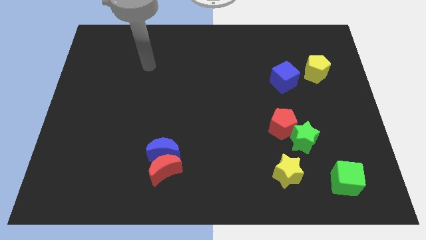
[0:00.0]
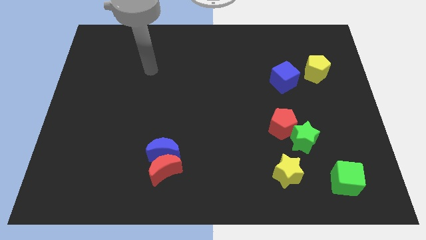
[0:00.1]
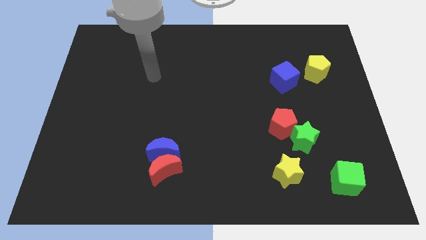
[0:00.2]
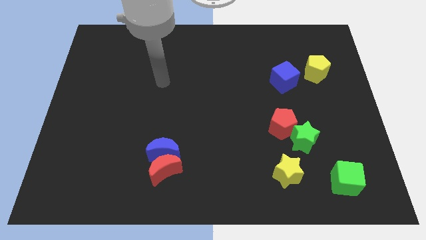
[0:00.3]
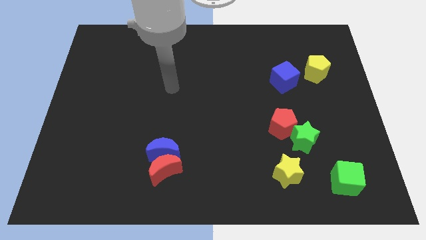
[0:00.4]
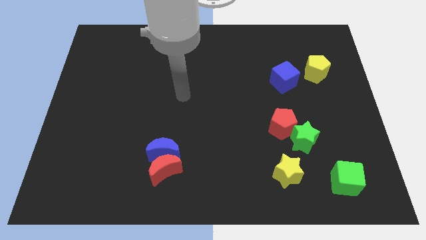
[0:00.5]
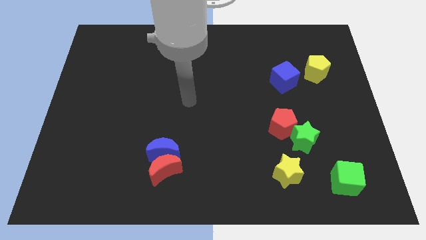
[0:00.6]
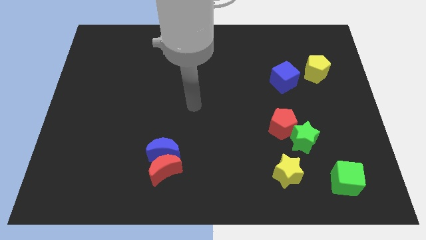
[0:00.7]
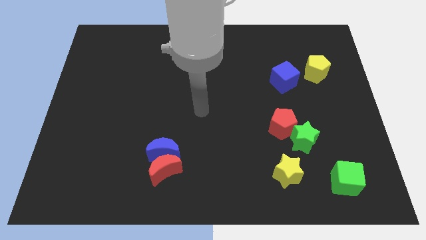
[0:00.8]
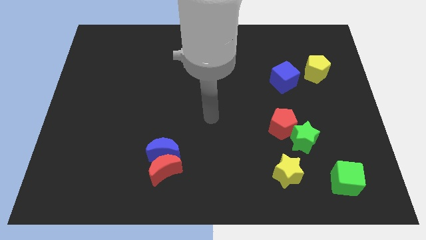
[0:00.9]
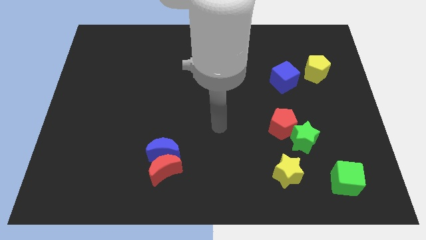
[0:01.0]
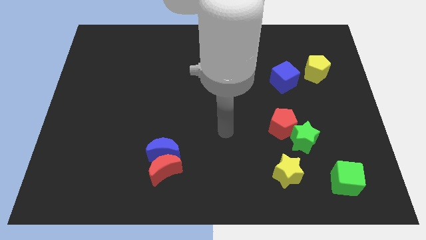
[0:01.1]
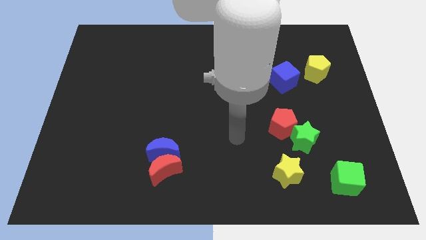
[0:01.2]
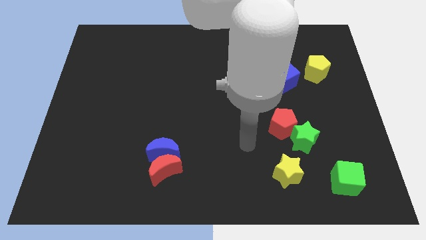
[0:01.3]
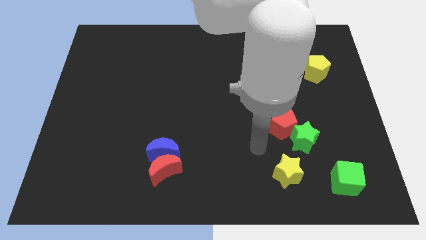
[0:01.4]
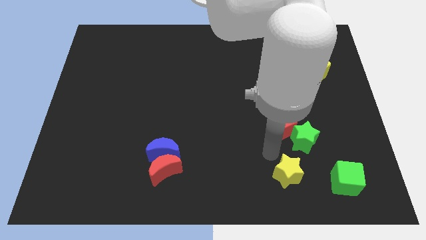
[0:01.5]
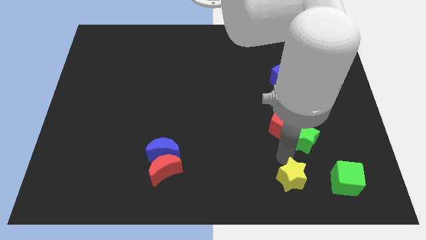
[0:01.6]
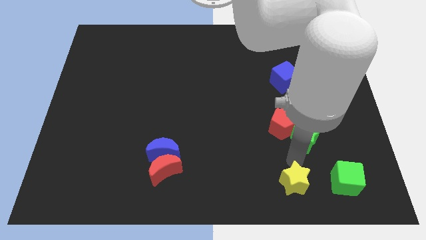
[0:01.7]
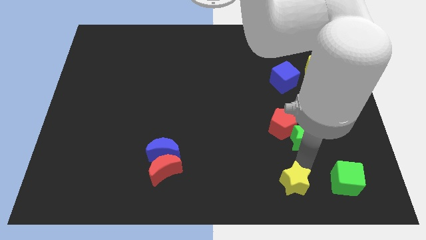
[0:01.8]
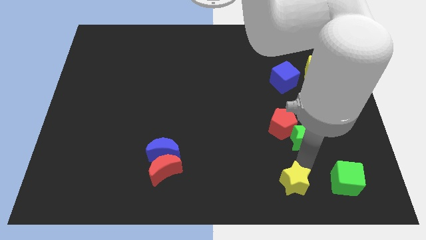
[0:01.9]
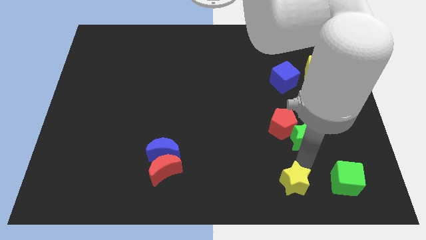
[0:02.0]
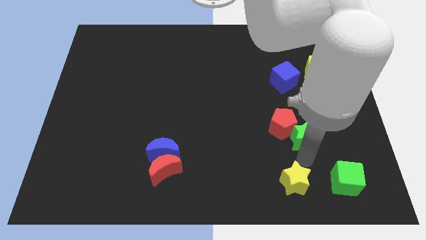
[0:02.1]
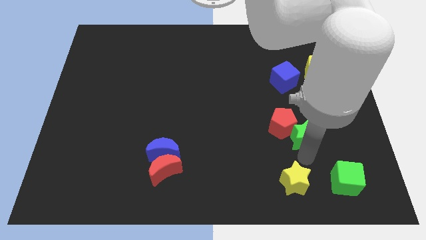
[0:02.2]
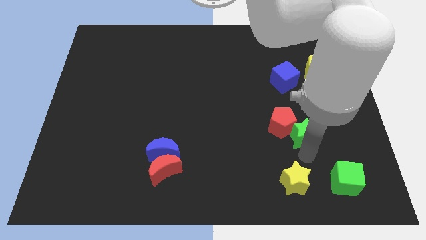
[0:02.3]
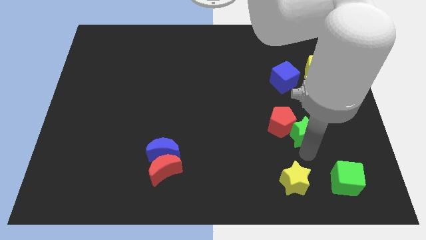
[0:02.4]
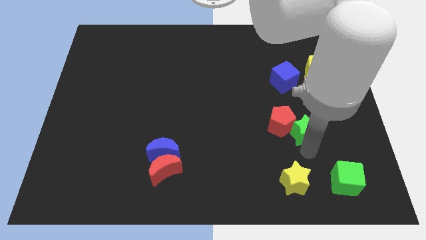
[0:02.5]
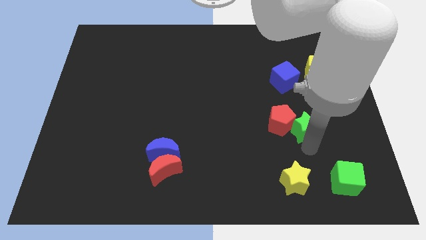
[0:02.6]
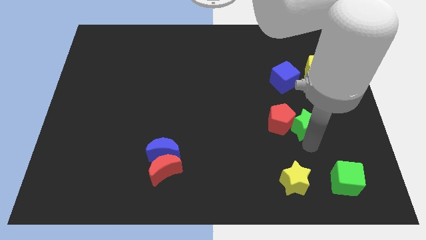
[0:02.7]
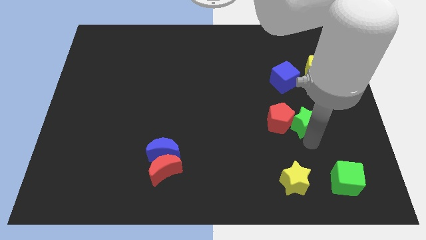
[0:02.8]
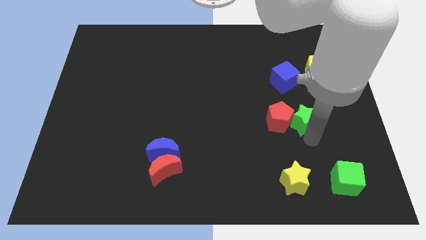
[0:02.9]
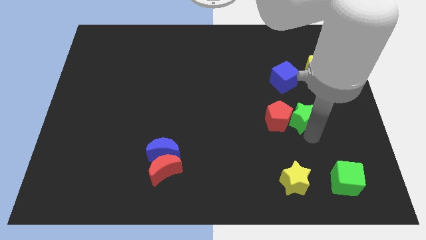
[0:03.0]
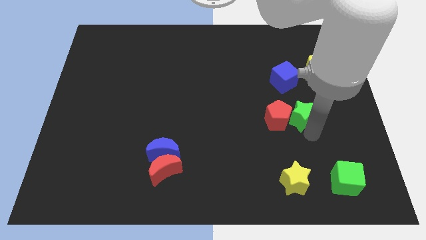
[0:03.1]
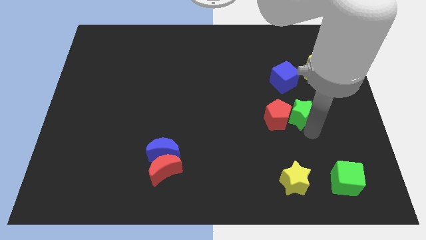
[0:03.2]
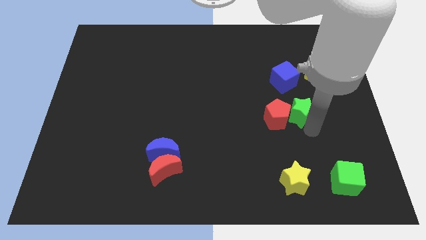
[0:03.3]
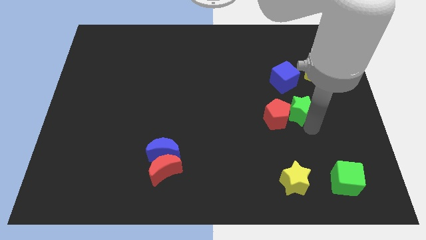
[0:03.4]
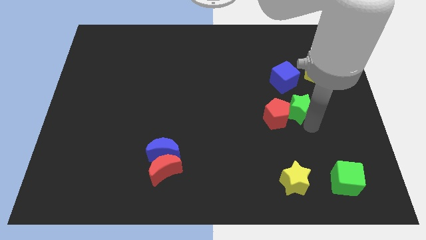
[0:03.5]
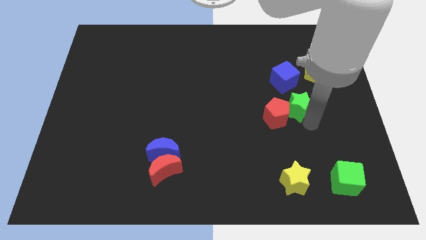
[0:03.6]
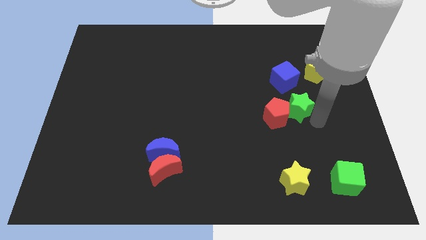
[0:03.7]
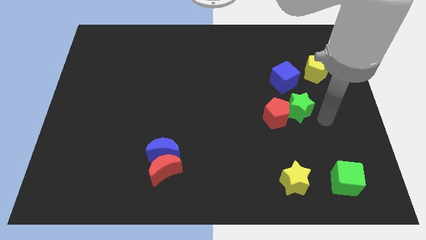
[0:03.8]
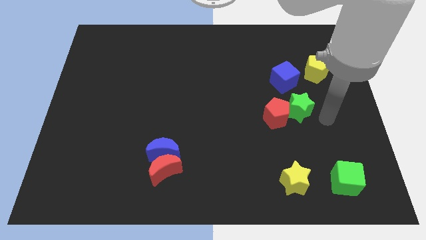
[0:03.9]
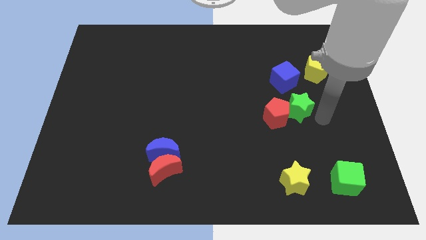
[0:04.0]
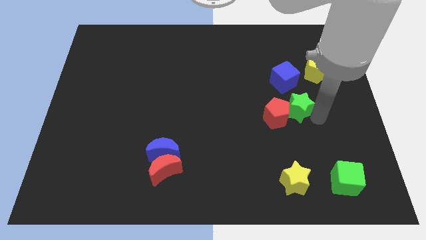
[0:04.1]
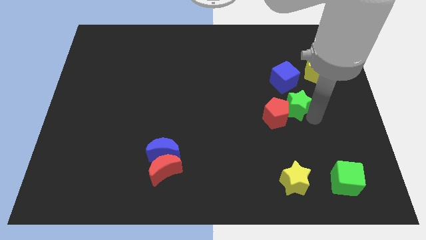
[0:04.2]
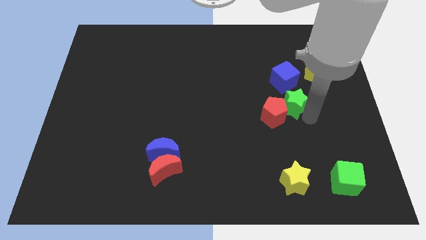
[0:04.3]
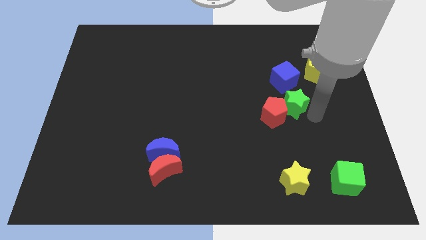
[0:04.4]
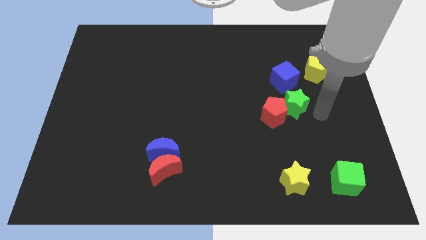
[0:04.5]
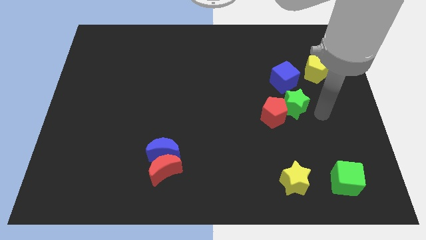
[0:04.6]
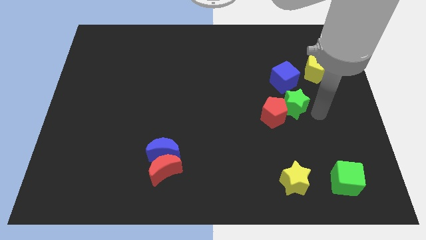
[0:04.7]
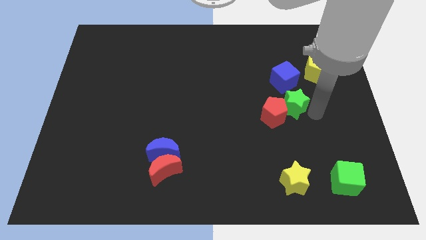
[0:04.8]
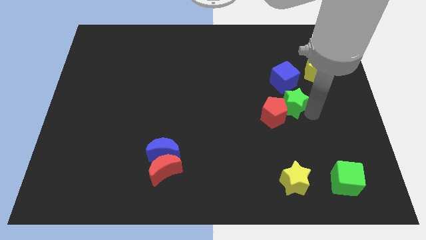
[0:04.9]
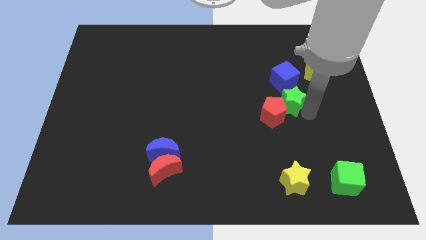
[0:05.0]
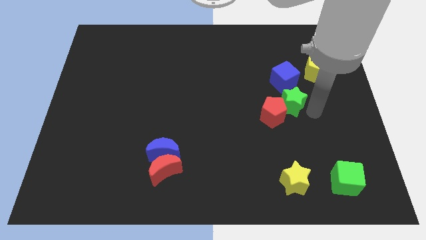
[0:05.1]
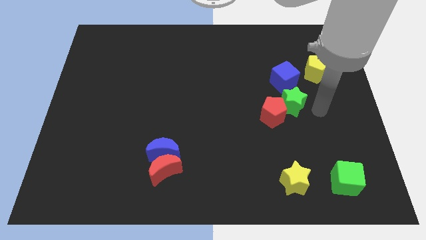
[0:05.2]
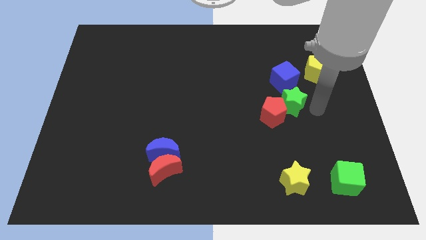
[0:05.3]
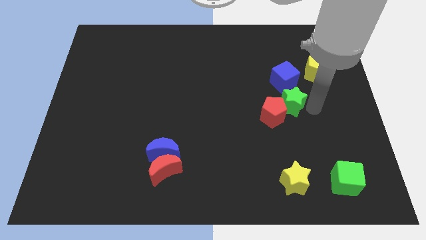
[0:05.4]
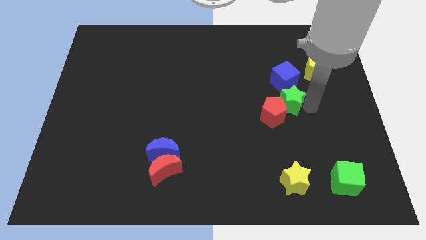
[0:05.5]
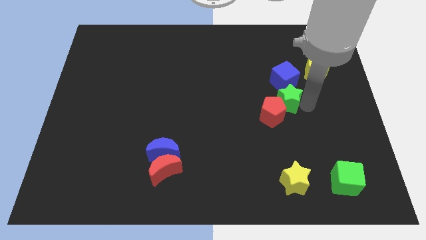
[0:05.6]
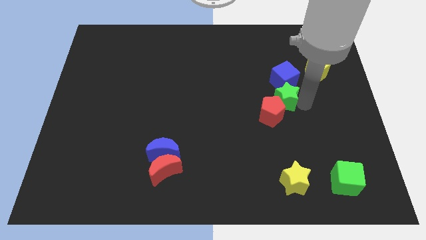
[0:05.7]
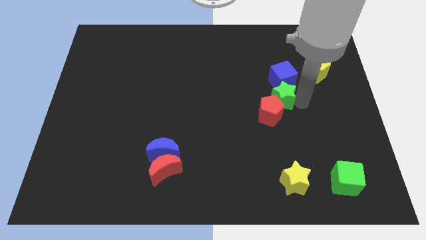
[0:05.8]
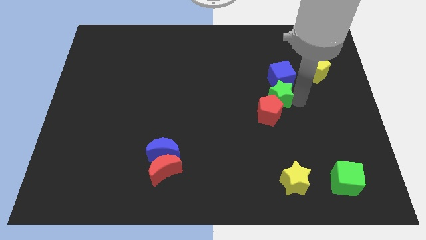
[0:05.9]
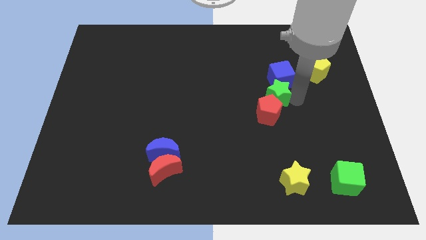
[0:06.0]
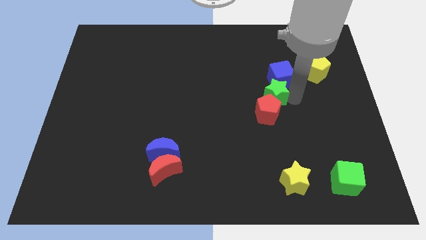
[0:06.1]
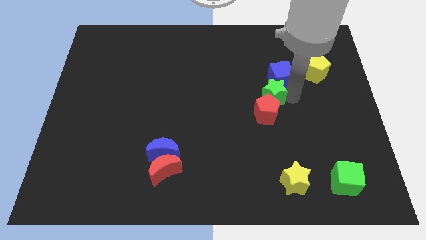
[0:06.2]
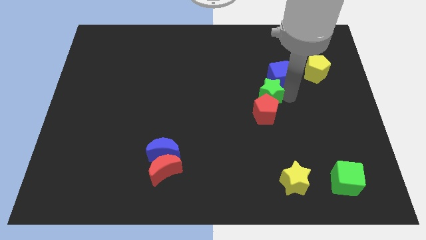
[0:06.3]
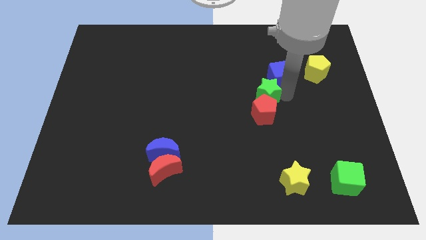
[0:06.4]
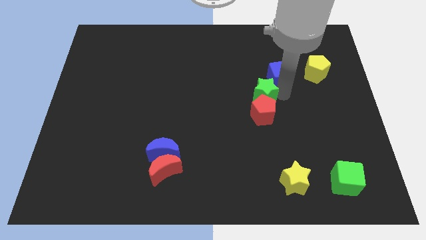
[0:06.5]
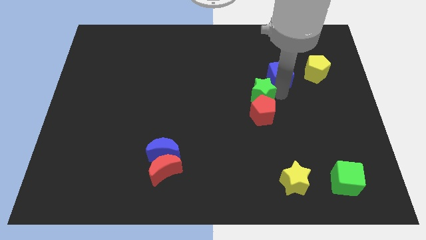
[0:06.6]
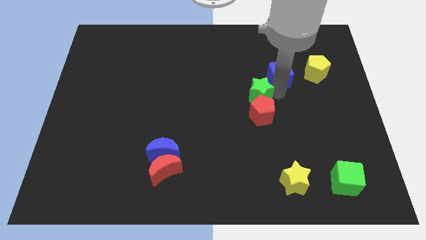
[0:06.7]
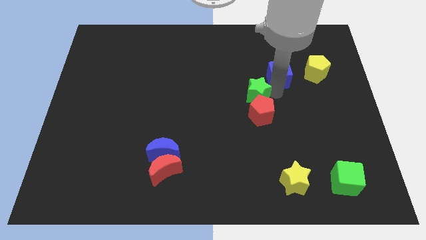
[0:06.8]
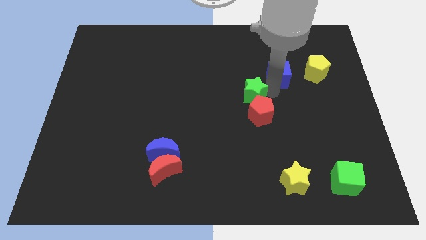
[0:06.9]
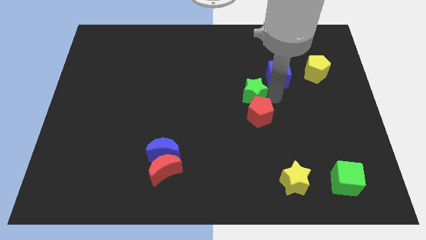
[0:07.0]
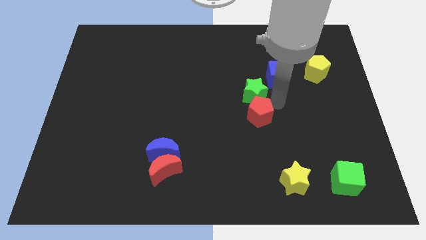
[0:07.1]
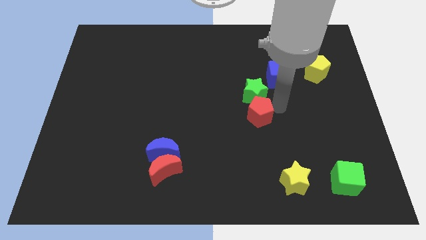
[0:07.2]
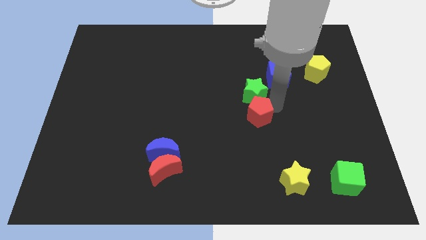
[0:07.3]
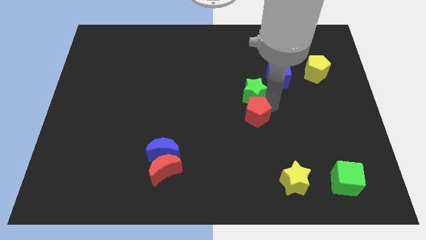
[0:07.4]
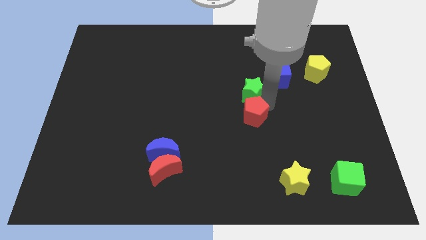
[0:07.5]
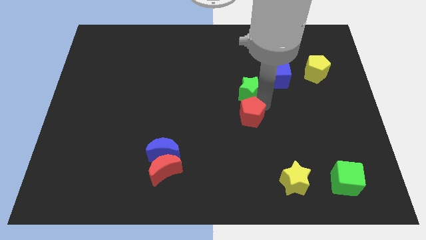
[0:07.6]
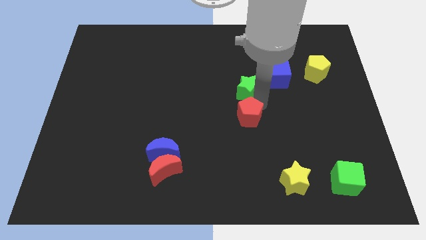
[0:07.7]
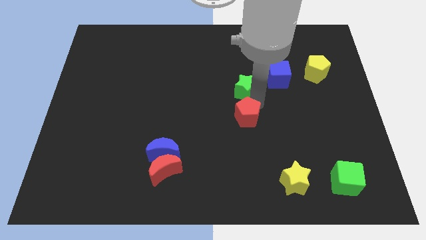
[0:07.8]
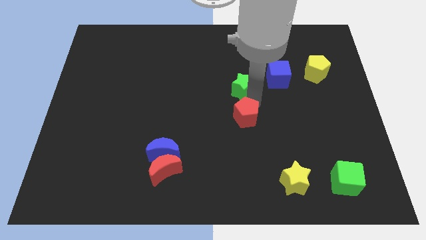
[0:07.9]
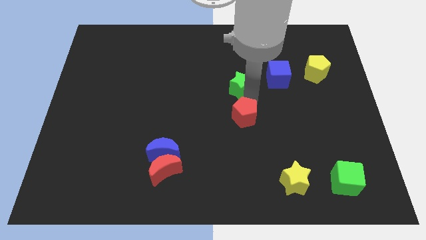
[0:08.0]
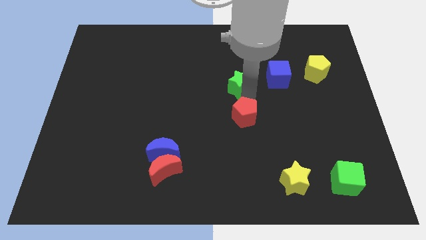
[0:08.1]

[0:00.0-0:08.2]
push the green star upwards and to the left diagonally
